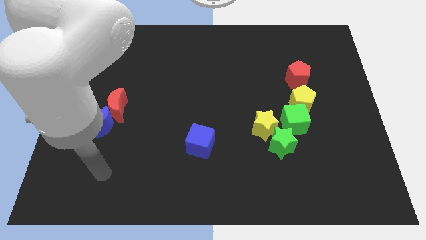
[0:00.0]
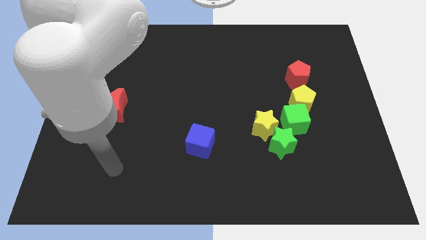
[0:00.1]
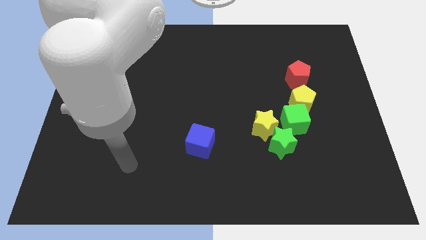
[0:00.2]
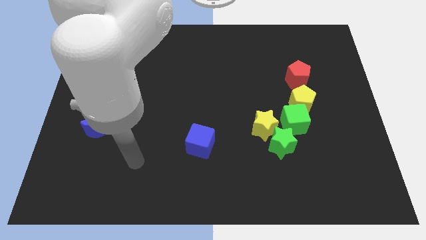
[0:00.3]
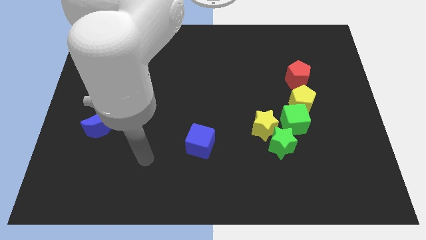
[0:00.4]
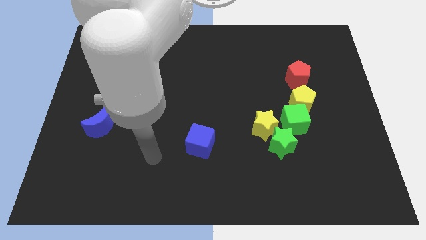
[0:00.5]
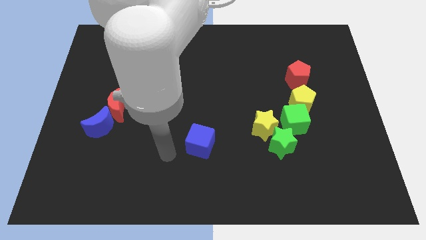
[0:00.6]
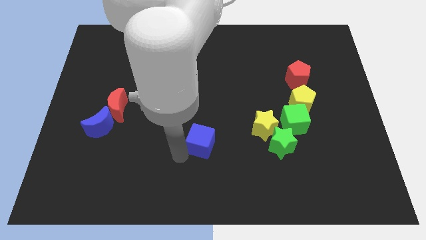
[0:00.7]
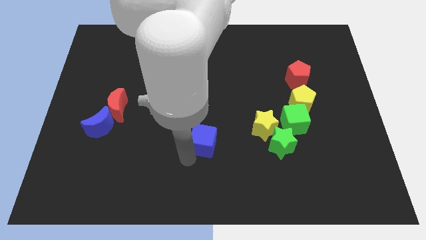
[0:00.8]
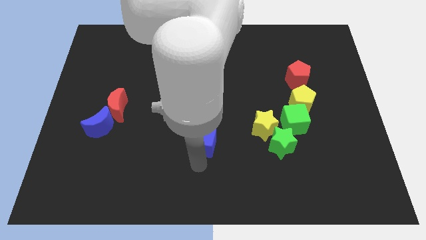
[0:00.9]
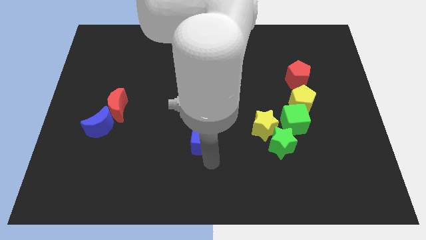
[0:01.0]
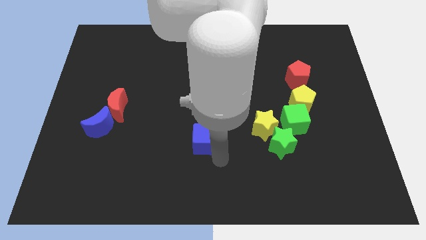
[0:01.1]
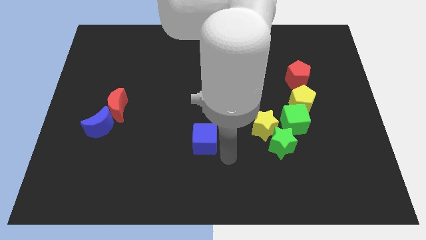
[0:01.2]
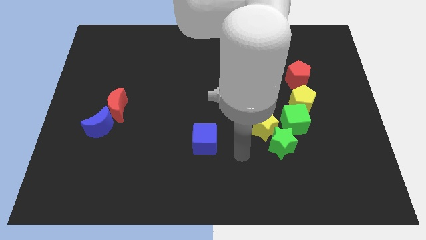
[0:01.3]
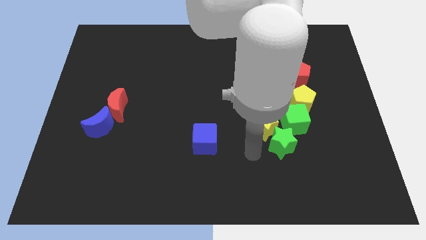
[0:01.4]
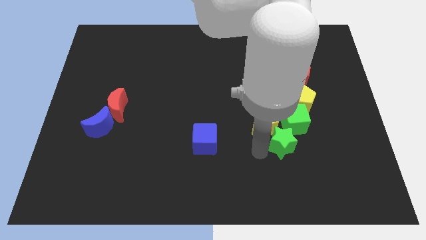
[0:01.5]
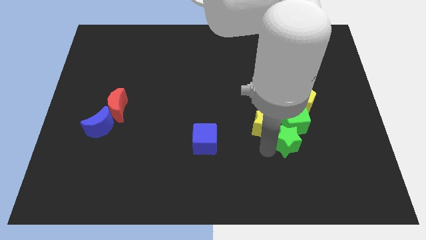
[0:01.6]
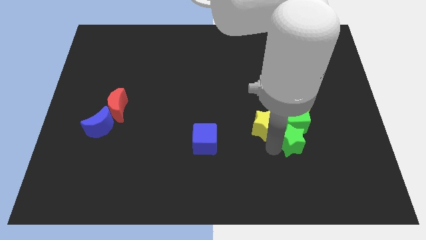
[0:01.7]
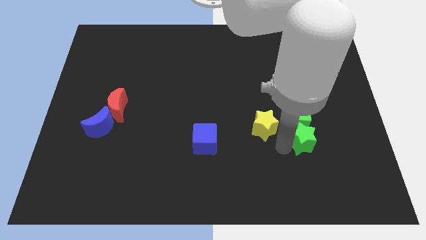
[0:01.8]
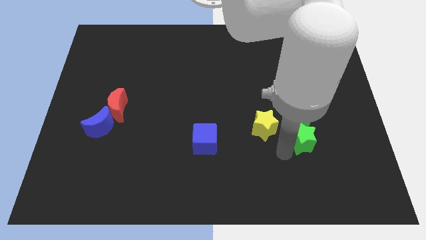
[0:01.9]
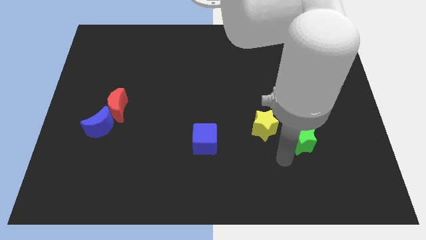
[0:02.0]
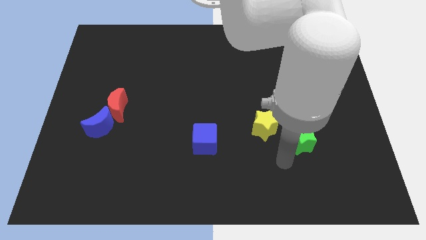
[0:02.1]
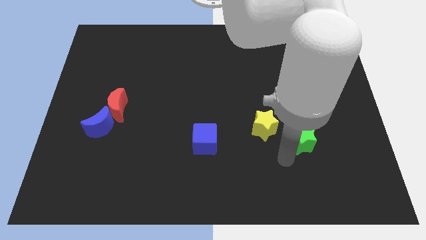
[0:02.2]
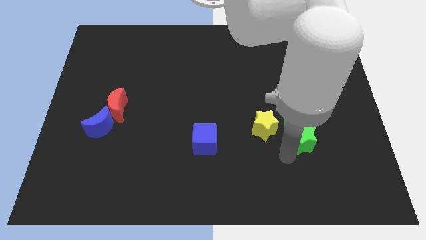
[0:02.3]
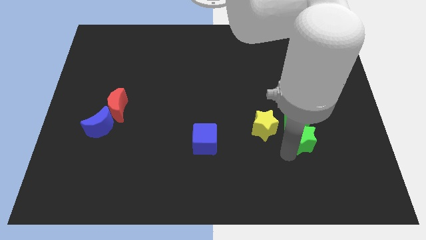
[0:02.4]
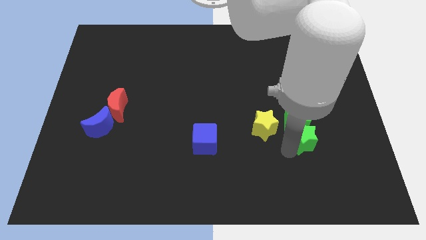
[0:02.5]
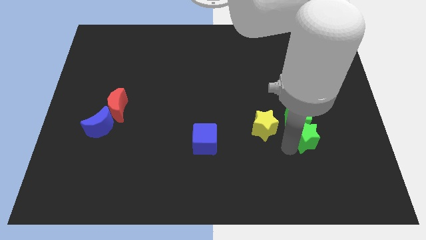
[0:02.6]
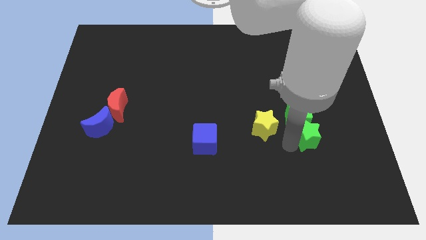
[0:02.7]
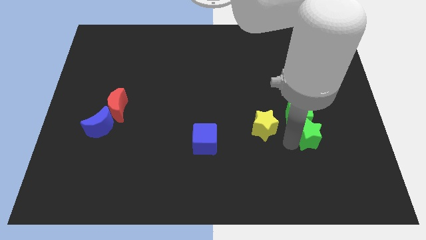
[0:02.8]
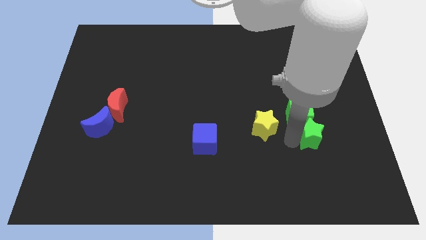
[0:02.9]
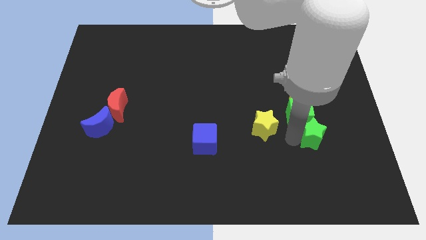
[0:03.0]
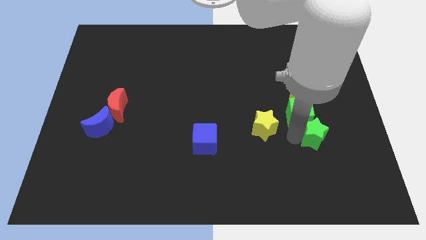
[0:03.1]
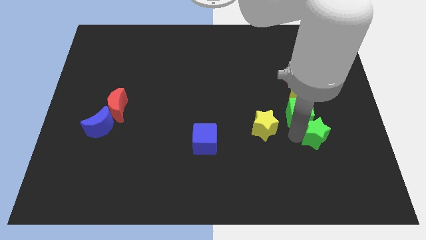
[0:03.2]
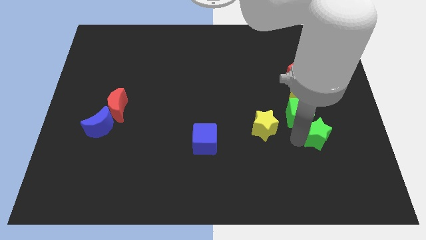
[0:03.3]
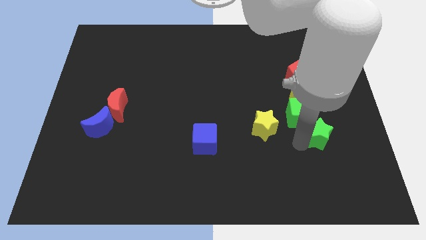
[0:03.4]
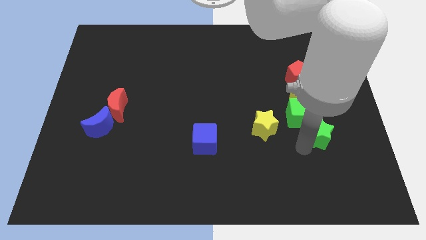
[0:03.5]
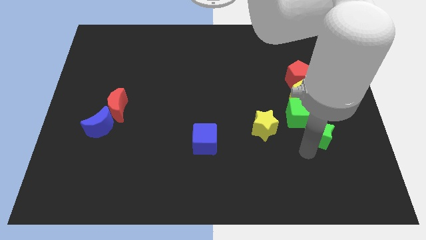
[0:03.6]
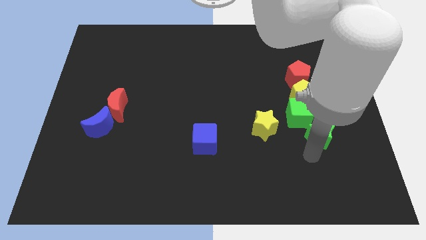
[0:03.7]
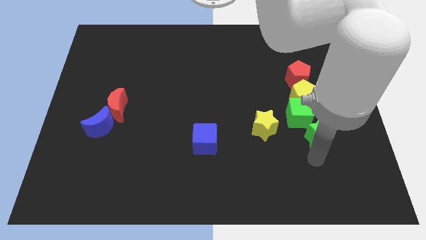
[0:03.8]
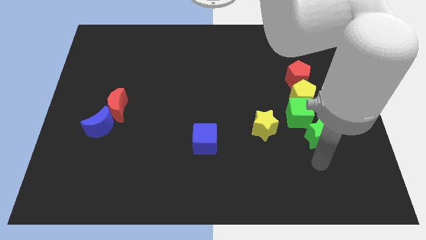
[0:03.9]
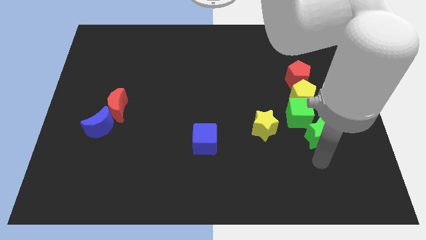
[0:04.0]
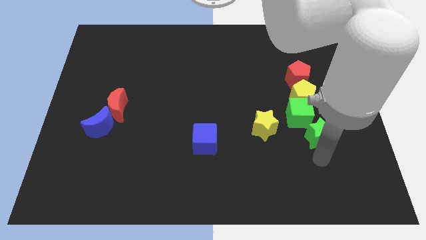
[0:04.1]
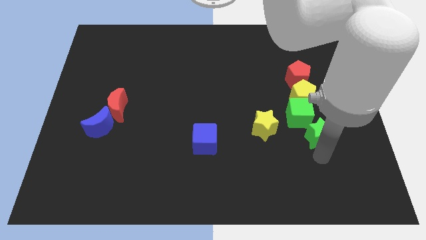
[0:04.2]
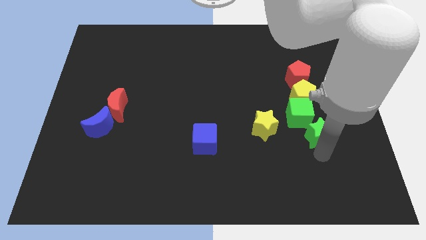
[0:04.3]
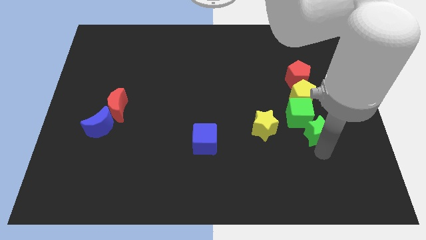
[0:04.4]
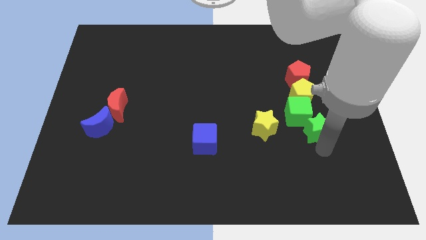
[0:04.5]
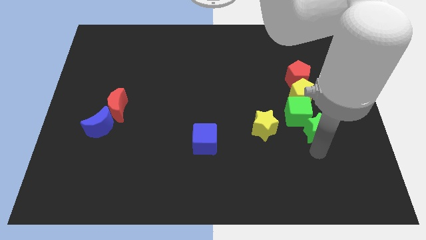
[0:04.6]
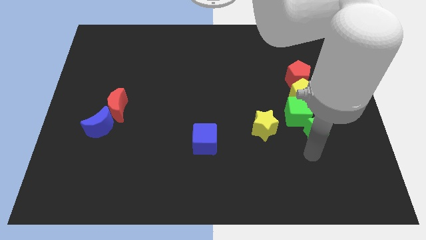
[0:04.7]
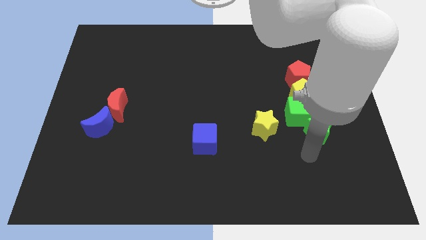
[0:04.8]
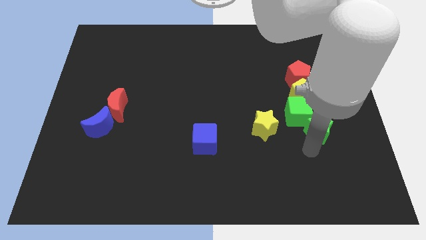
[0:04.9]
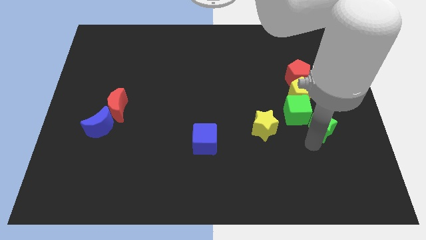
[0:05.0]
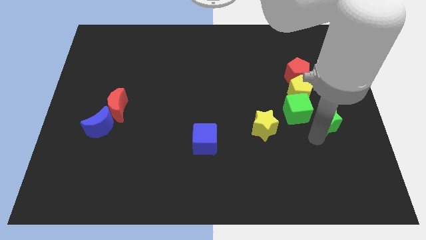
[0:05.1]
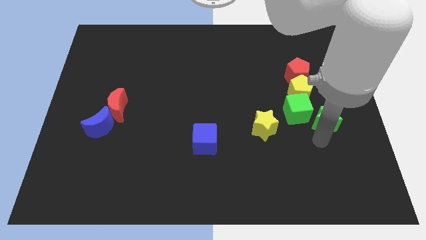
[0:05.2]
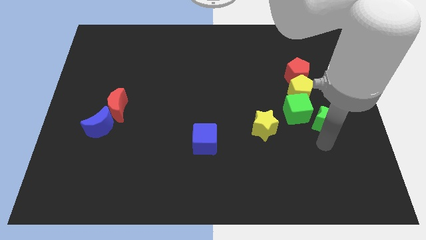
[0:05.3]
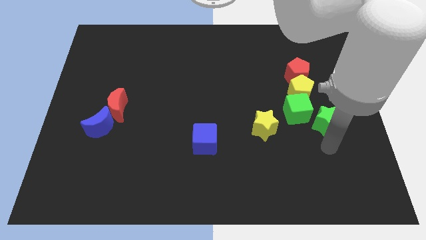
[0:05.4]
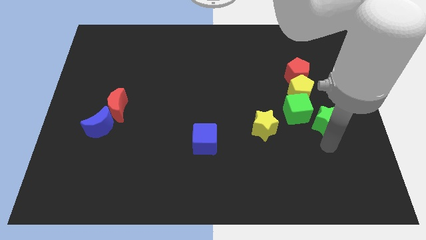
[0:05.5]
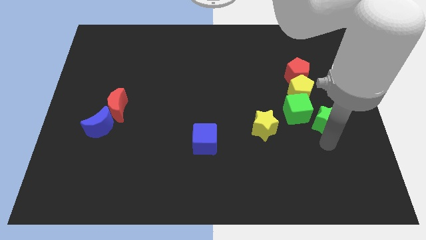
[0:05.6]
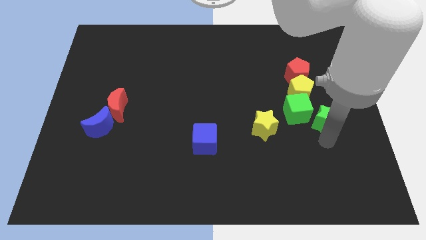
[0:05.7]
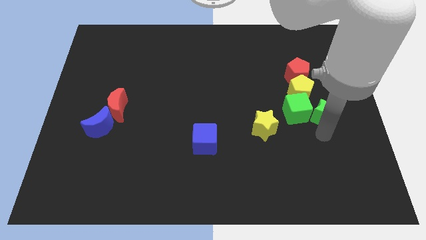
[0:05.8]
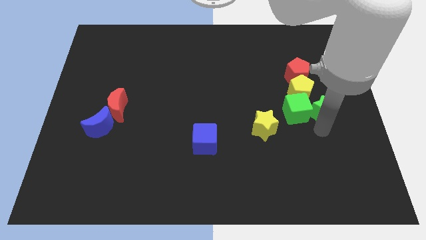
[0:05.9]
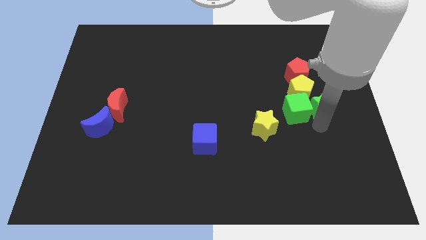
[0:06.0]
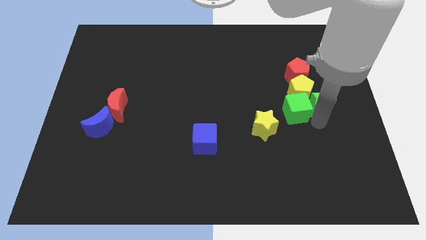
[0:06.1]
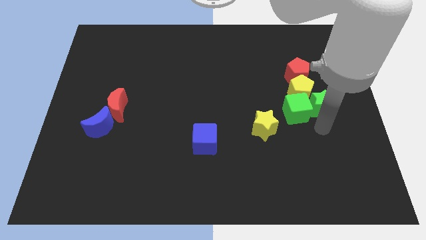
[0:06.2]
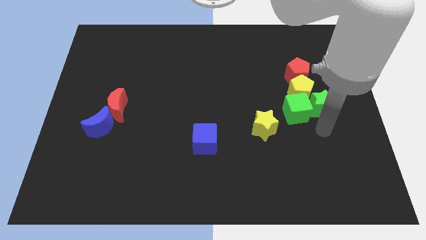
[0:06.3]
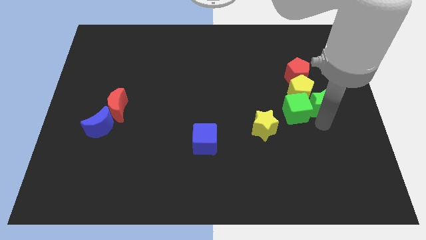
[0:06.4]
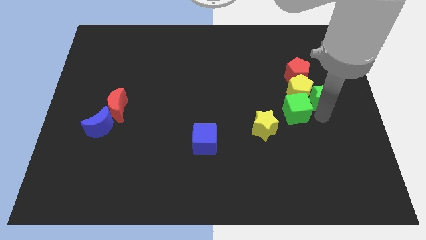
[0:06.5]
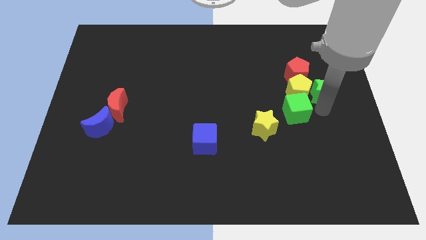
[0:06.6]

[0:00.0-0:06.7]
put the green star to the top right of the yellow pentagon

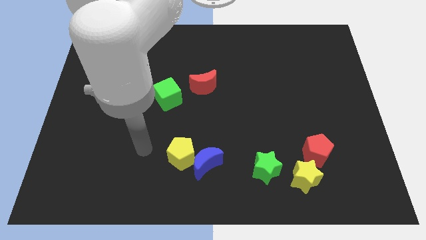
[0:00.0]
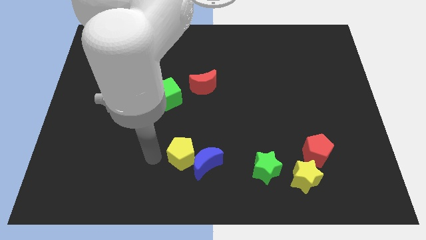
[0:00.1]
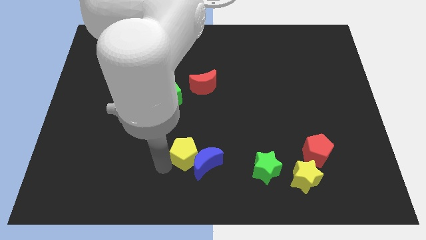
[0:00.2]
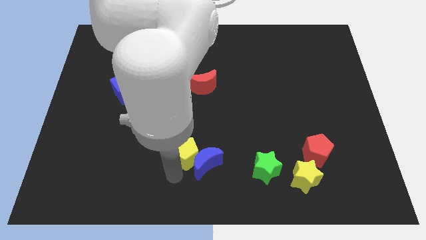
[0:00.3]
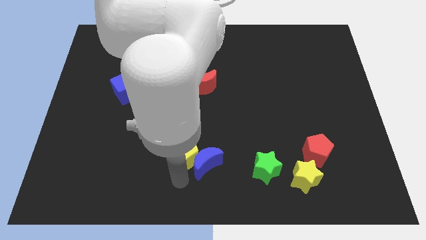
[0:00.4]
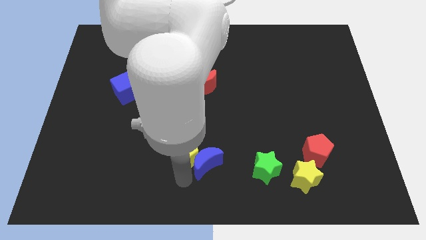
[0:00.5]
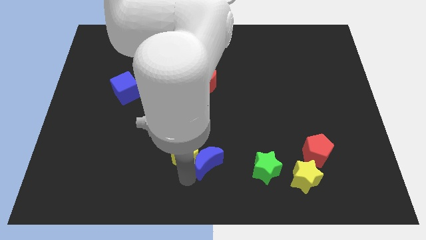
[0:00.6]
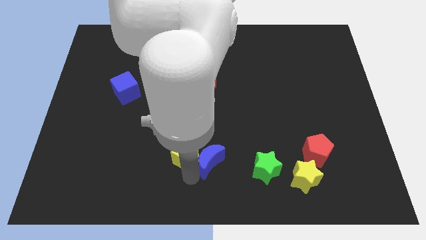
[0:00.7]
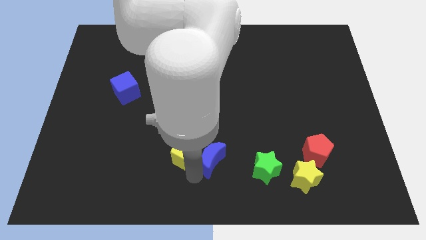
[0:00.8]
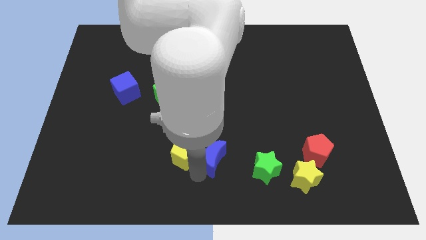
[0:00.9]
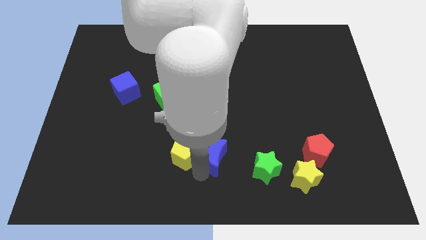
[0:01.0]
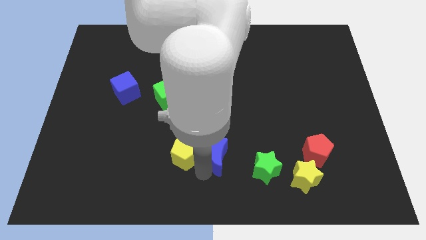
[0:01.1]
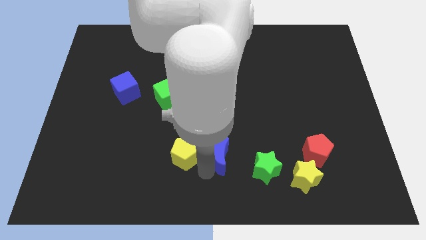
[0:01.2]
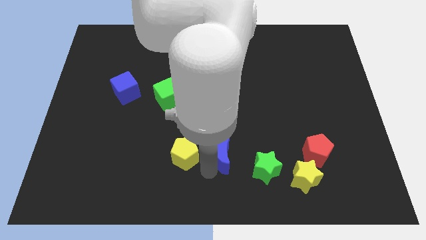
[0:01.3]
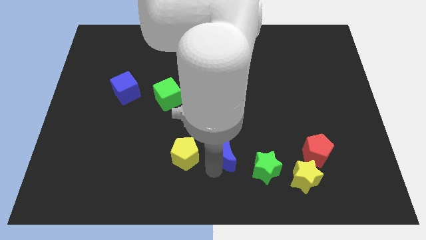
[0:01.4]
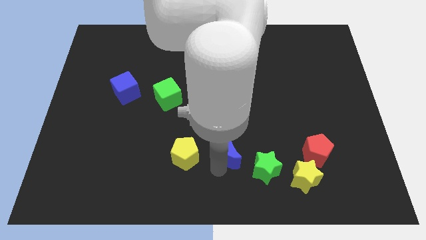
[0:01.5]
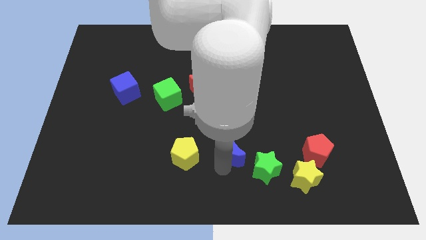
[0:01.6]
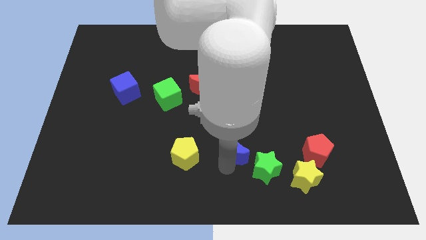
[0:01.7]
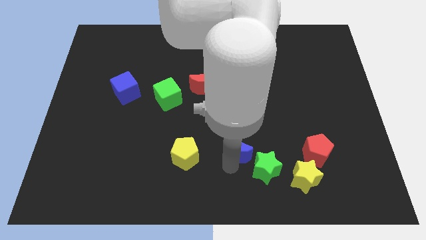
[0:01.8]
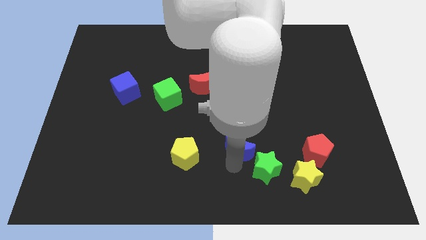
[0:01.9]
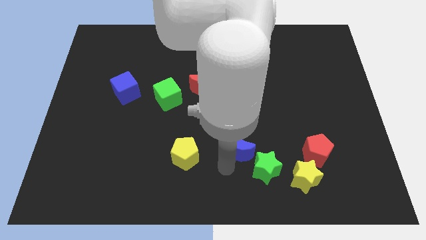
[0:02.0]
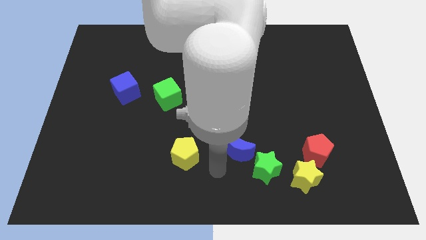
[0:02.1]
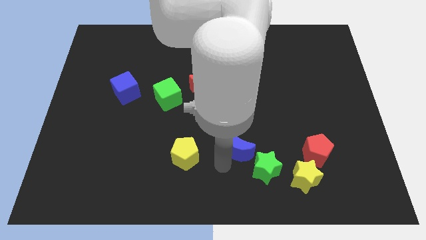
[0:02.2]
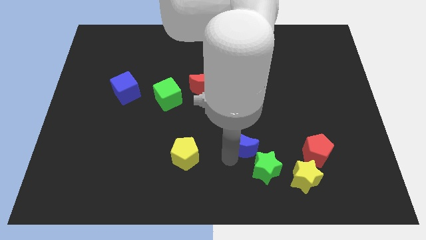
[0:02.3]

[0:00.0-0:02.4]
move the blue moon above the green star
